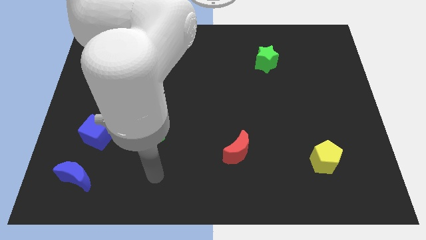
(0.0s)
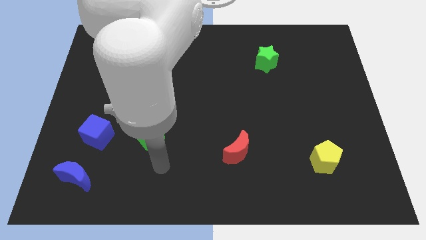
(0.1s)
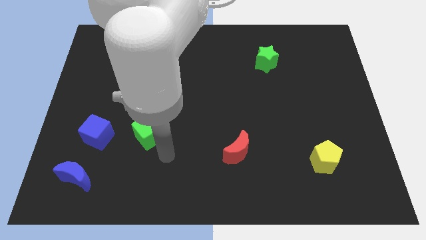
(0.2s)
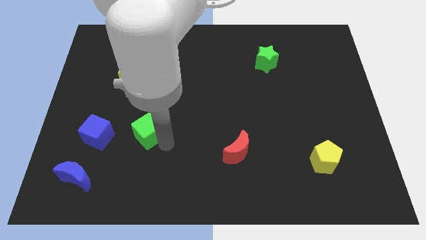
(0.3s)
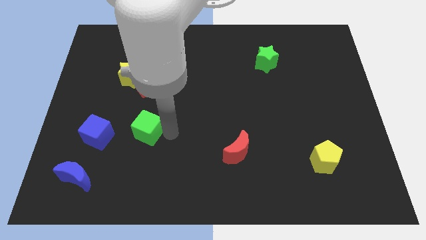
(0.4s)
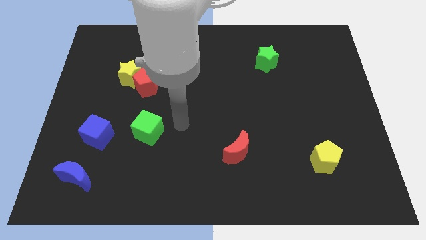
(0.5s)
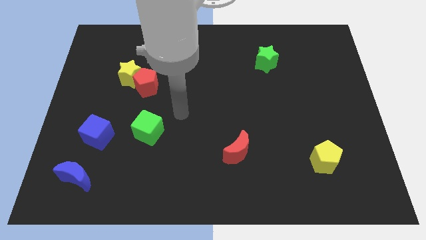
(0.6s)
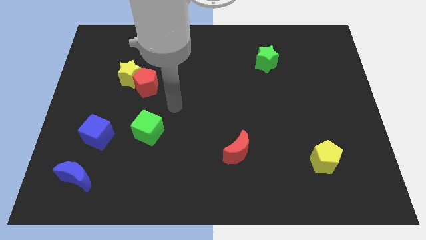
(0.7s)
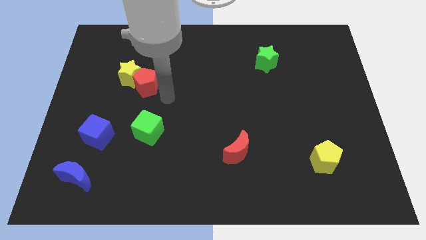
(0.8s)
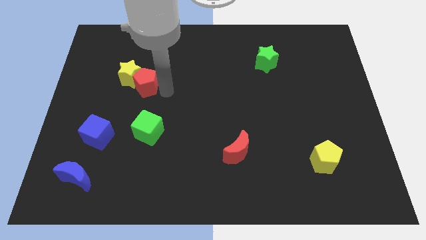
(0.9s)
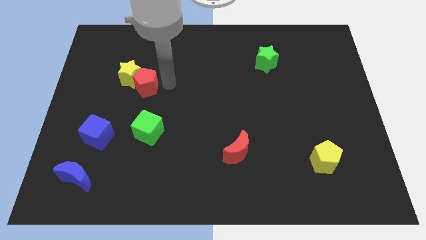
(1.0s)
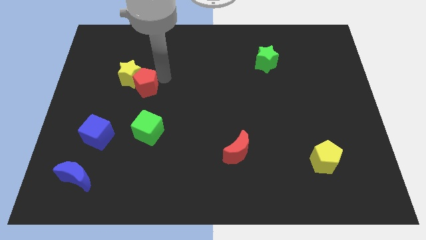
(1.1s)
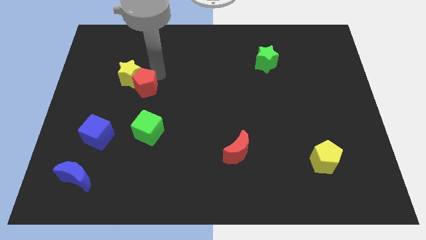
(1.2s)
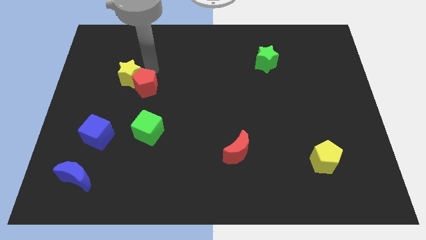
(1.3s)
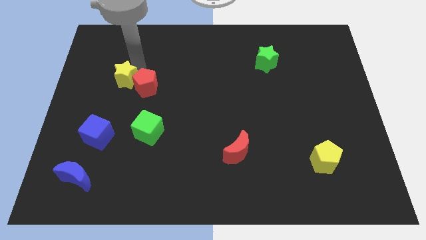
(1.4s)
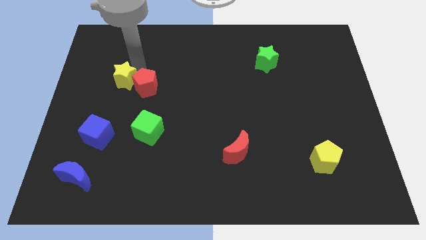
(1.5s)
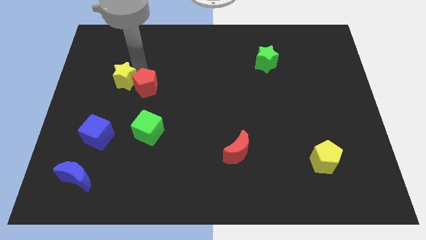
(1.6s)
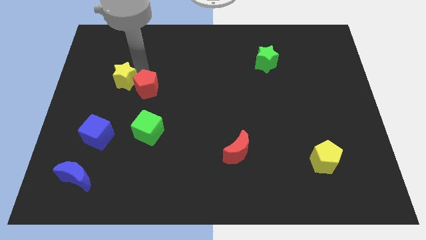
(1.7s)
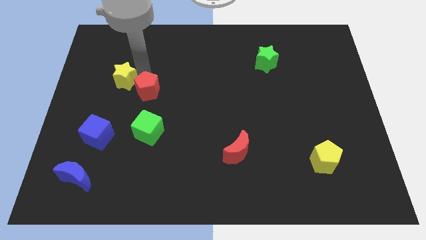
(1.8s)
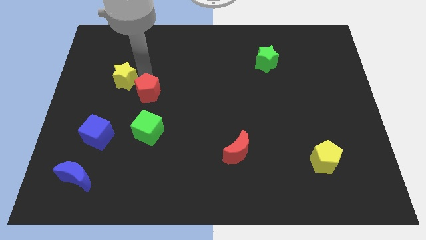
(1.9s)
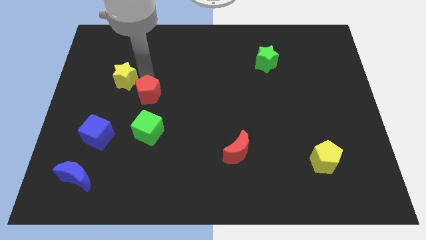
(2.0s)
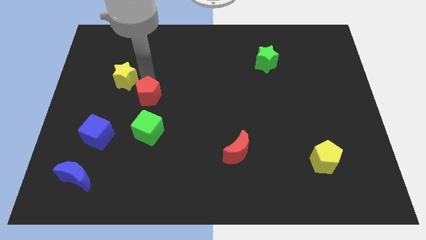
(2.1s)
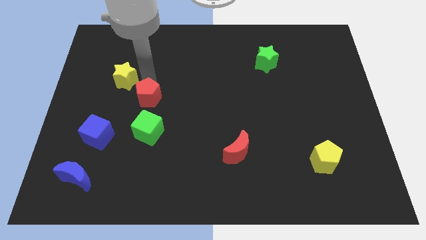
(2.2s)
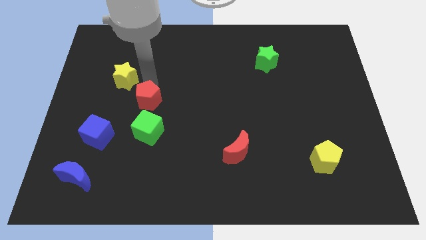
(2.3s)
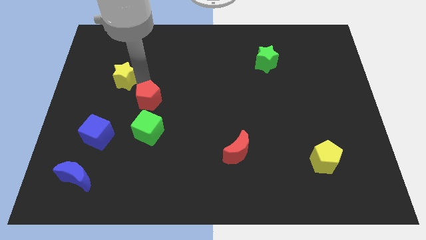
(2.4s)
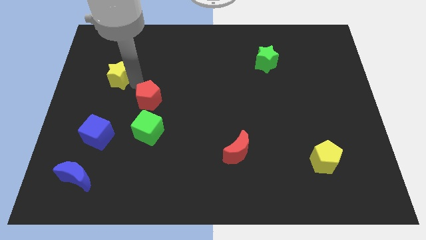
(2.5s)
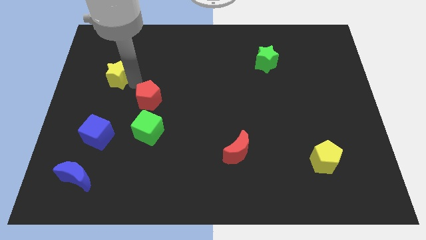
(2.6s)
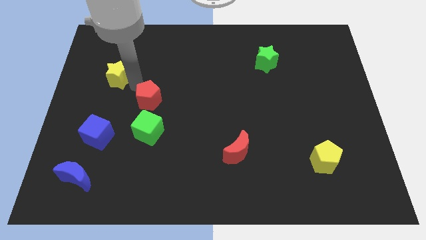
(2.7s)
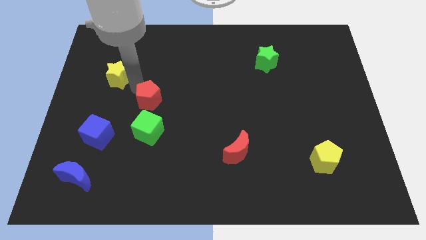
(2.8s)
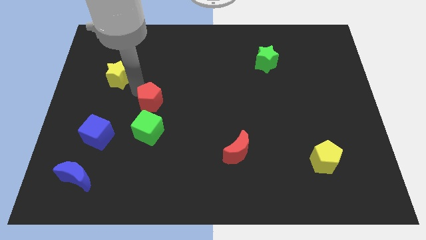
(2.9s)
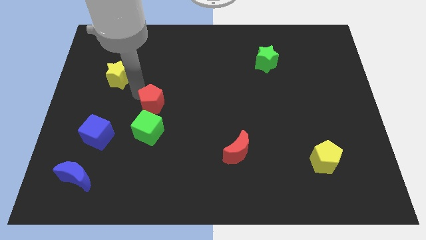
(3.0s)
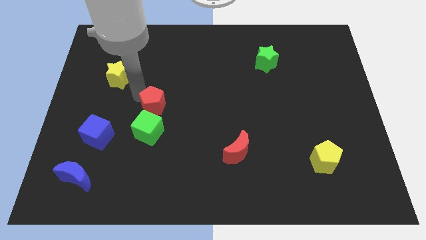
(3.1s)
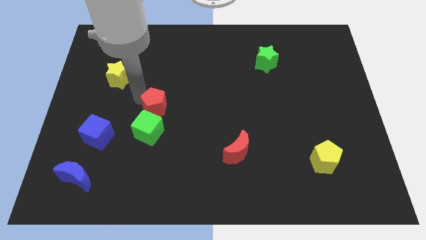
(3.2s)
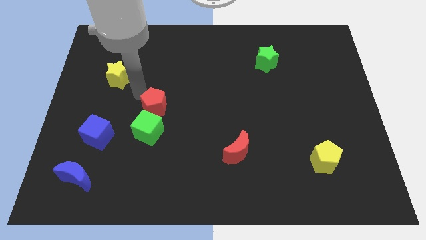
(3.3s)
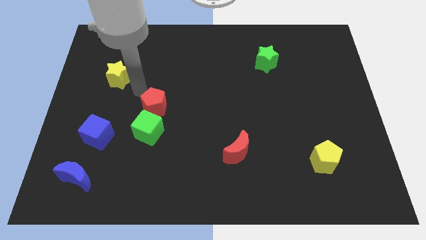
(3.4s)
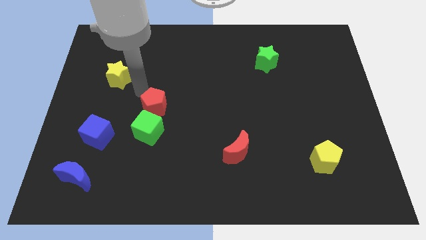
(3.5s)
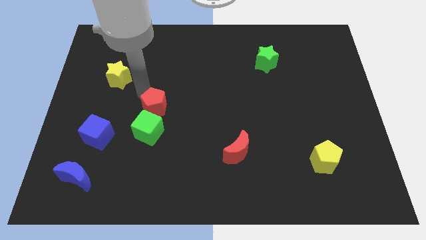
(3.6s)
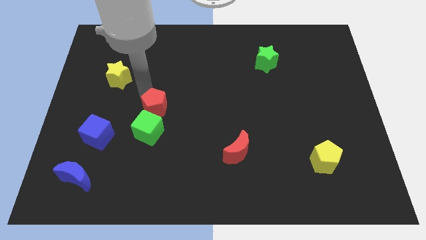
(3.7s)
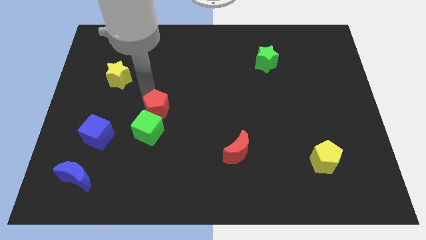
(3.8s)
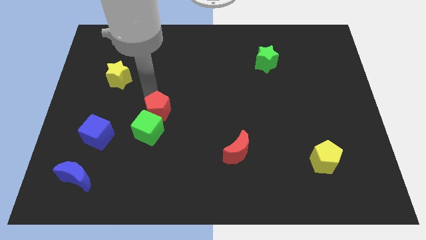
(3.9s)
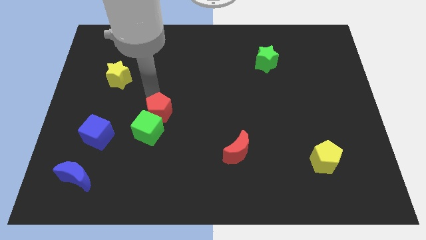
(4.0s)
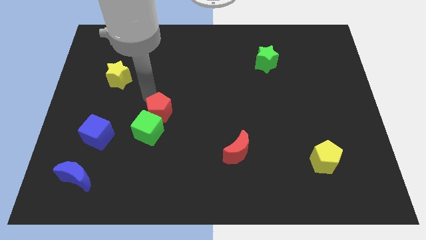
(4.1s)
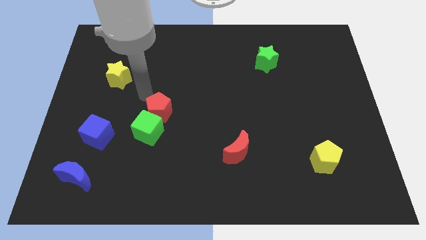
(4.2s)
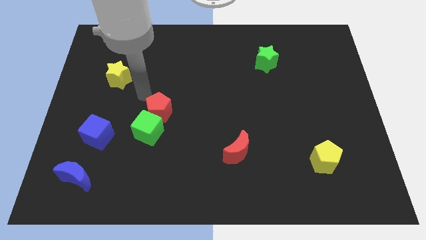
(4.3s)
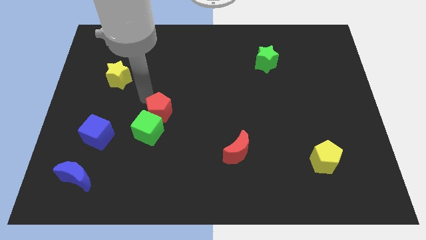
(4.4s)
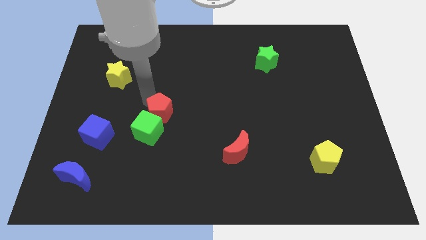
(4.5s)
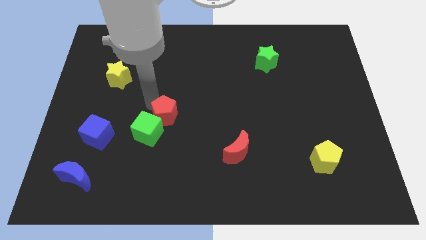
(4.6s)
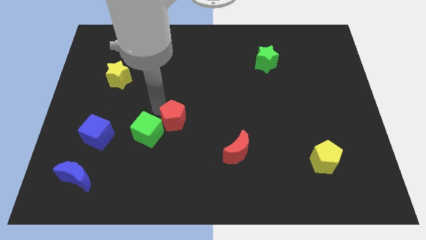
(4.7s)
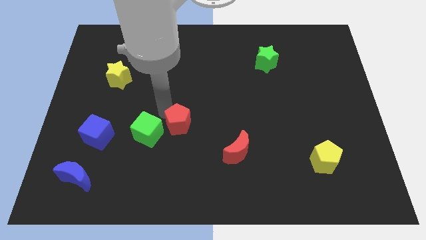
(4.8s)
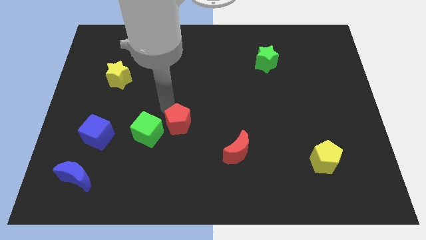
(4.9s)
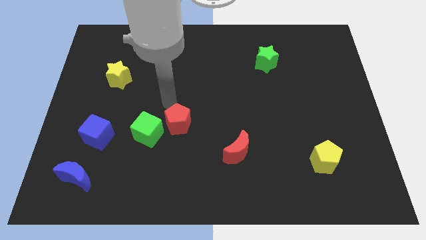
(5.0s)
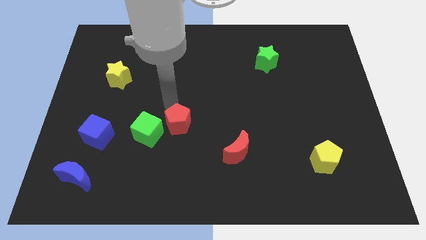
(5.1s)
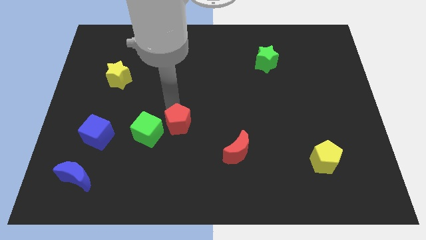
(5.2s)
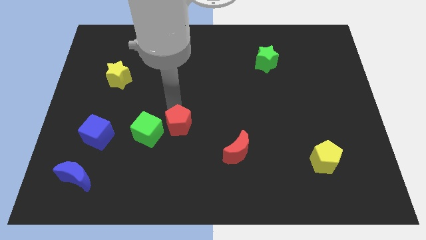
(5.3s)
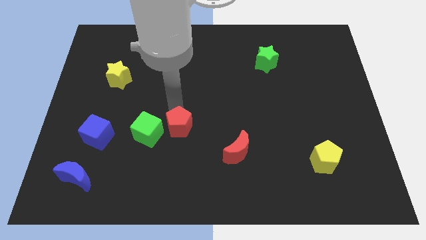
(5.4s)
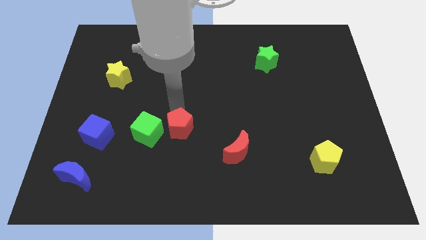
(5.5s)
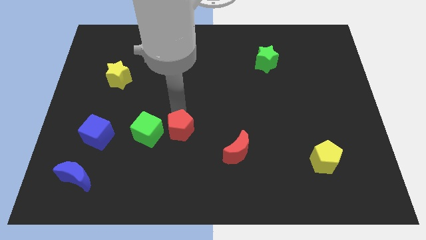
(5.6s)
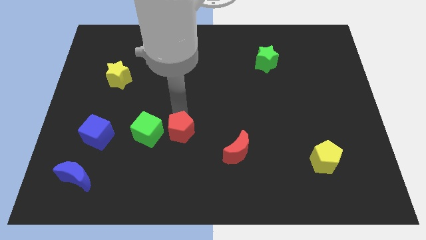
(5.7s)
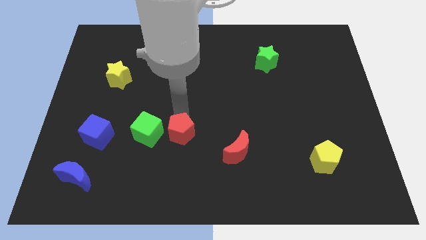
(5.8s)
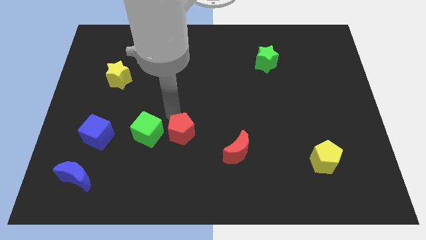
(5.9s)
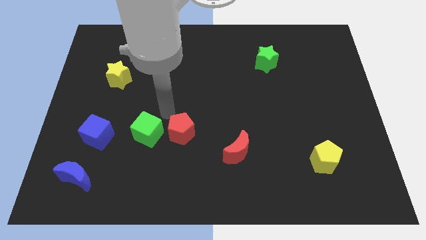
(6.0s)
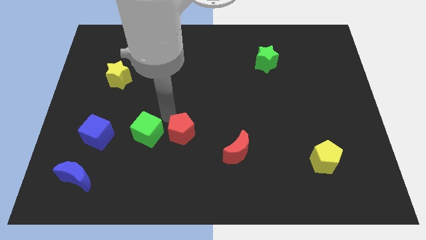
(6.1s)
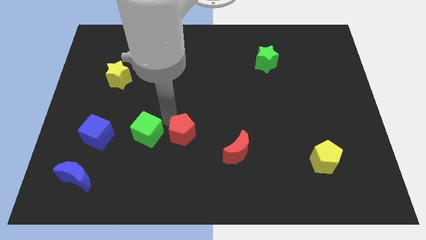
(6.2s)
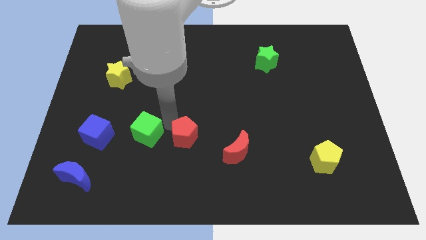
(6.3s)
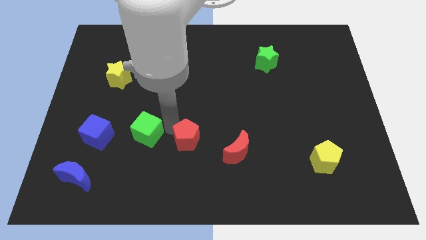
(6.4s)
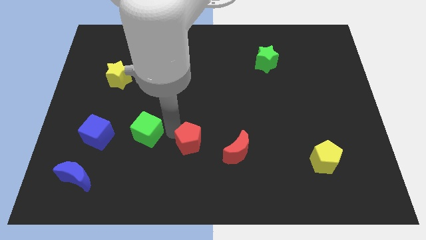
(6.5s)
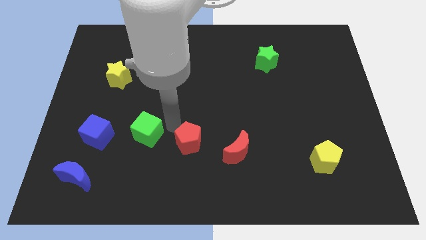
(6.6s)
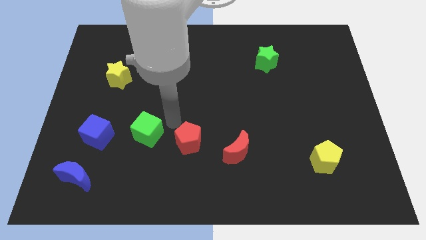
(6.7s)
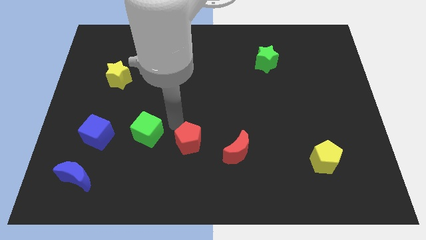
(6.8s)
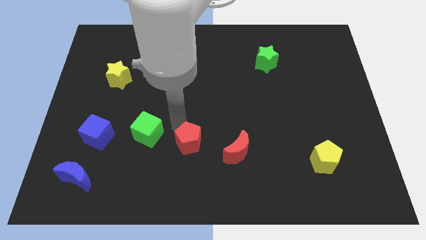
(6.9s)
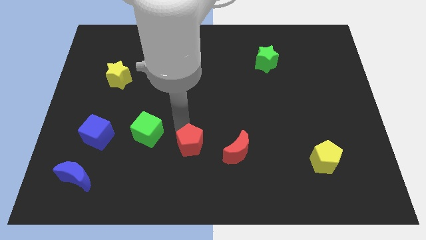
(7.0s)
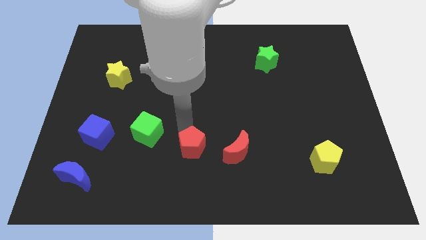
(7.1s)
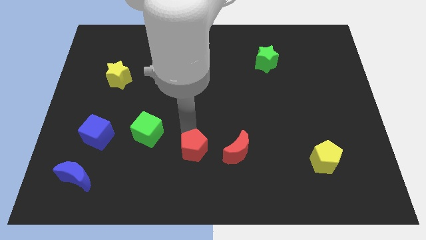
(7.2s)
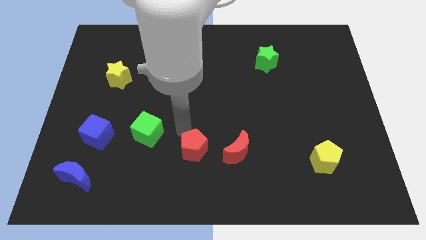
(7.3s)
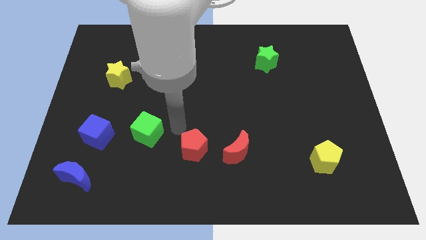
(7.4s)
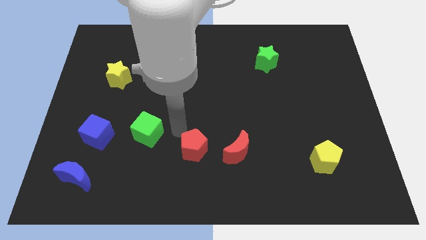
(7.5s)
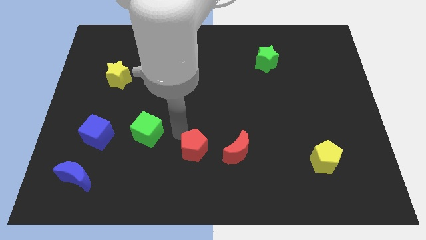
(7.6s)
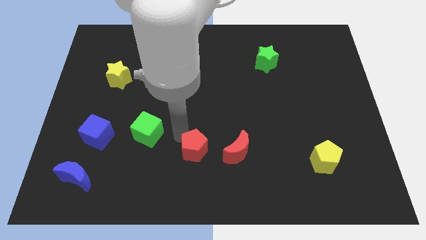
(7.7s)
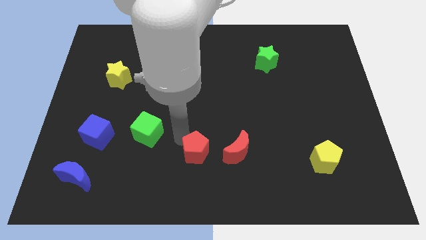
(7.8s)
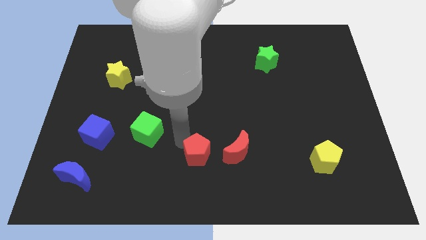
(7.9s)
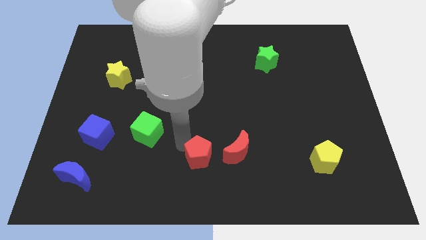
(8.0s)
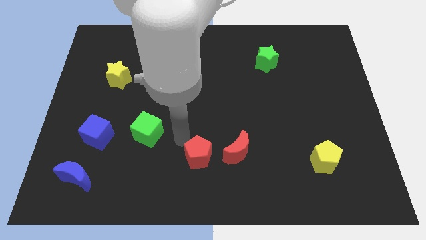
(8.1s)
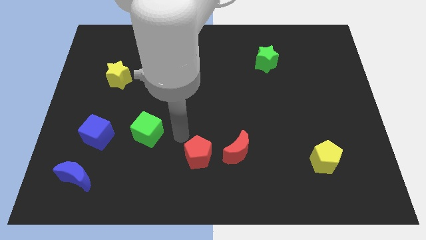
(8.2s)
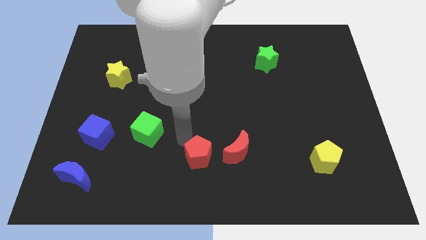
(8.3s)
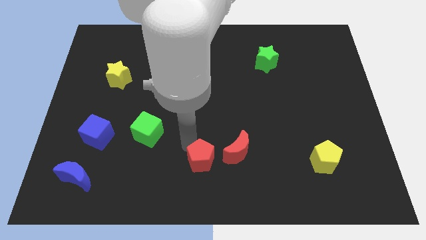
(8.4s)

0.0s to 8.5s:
push the red pentagon to the bottom left side of the red moon
